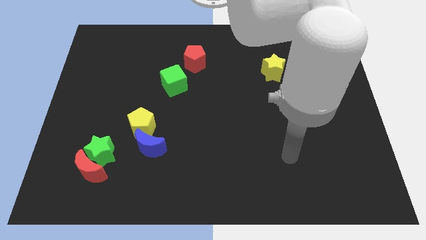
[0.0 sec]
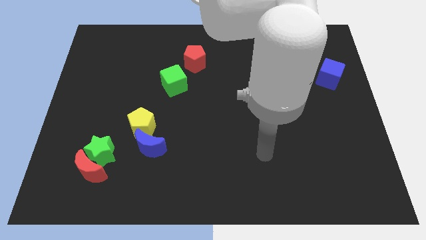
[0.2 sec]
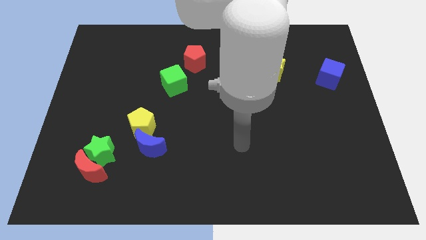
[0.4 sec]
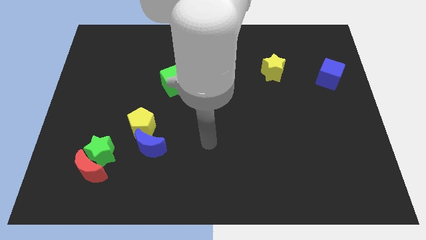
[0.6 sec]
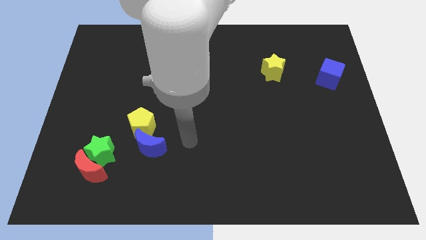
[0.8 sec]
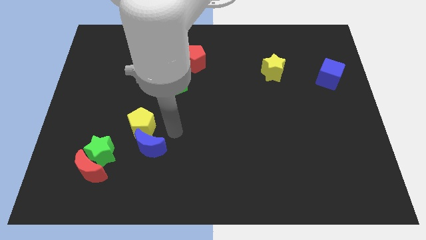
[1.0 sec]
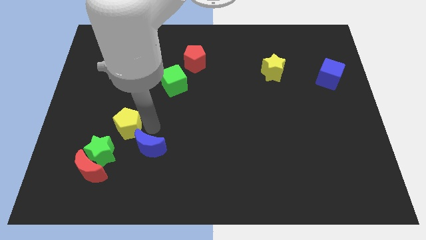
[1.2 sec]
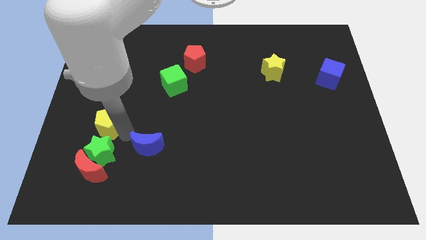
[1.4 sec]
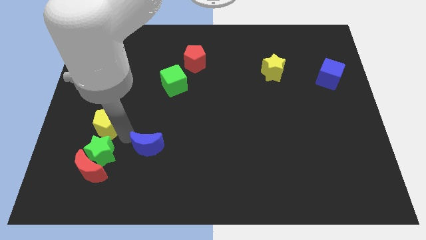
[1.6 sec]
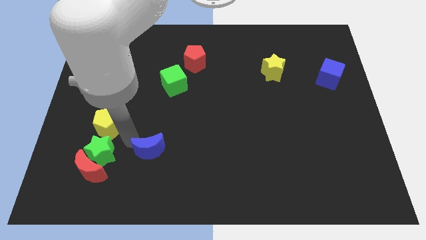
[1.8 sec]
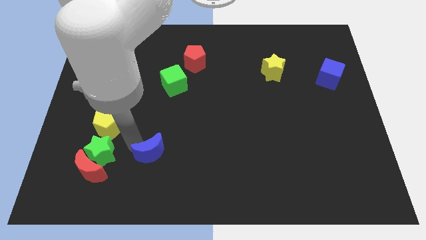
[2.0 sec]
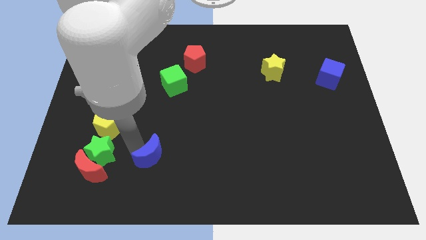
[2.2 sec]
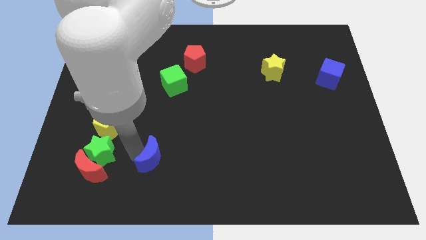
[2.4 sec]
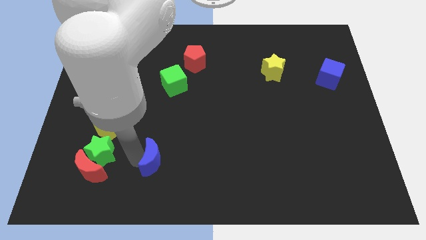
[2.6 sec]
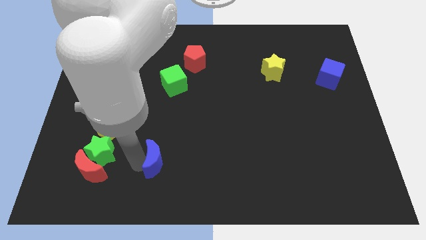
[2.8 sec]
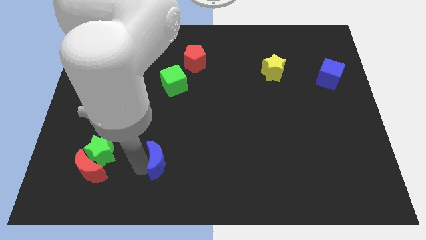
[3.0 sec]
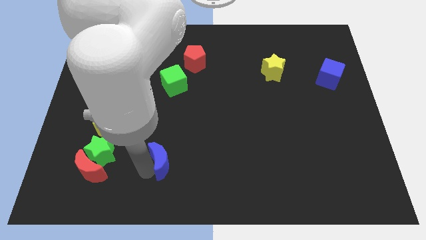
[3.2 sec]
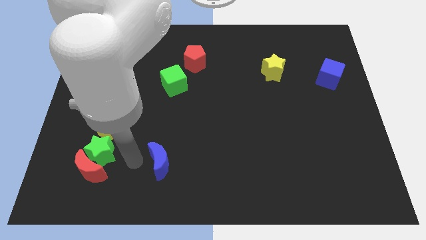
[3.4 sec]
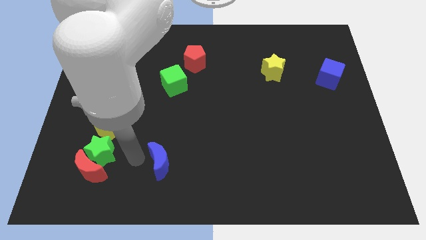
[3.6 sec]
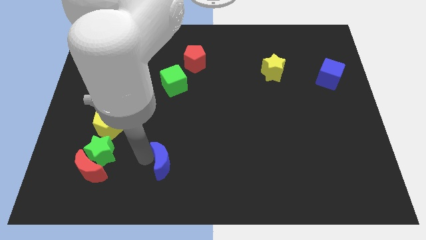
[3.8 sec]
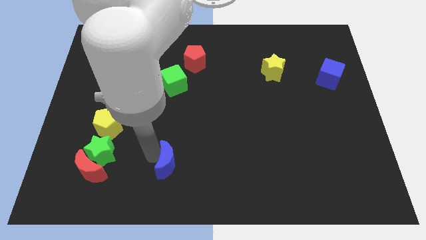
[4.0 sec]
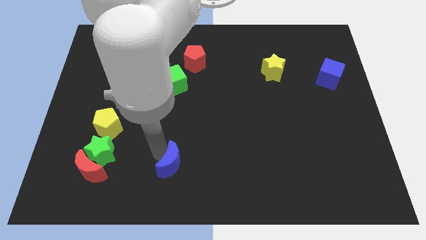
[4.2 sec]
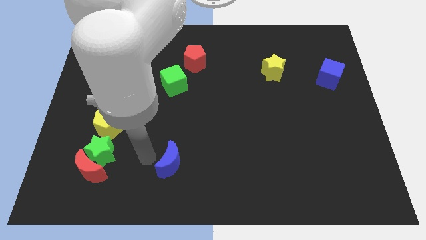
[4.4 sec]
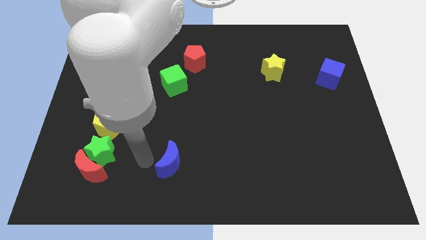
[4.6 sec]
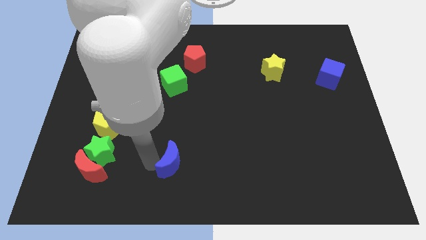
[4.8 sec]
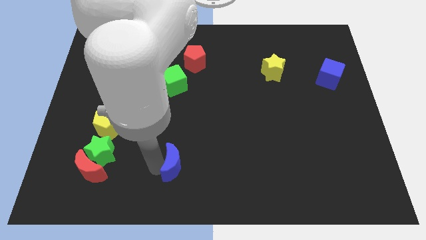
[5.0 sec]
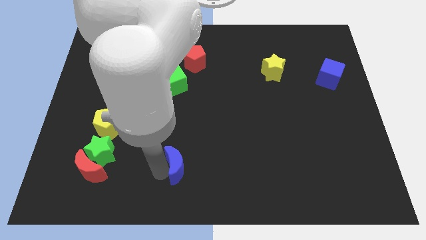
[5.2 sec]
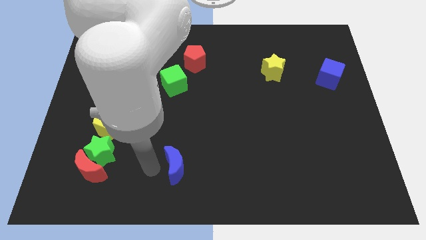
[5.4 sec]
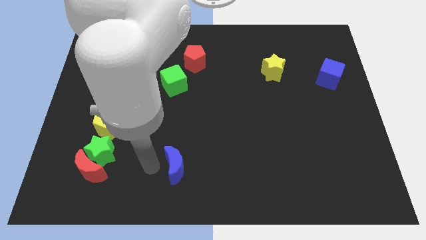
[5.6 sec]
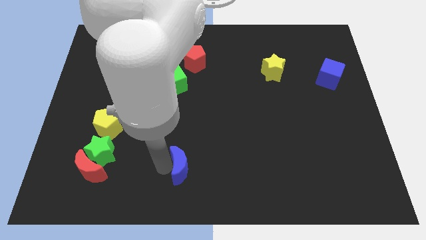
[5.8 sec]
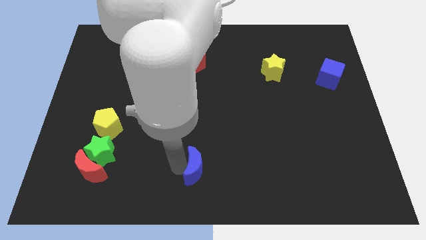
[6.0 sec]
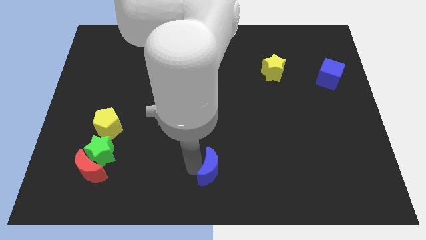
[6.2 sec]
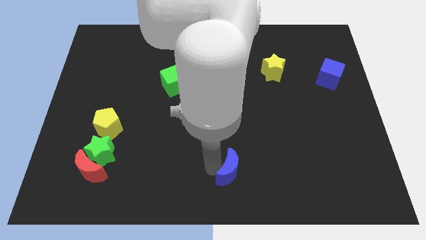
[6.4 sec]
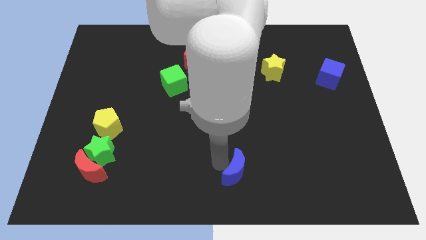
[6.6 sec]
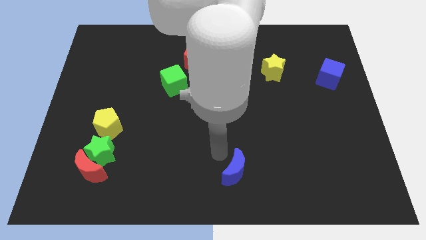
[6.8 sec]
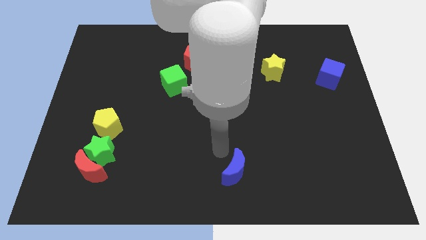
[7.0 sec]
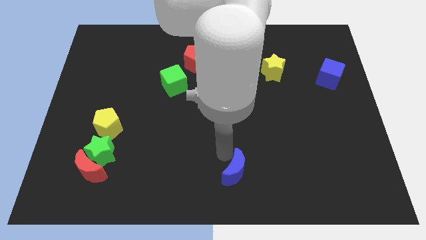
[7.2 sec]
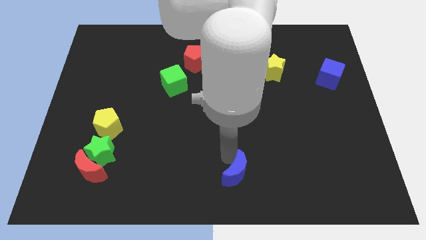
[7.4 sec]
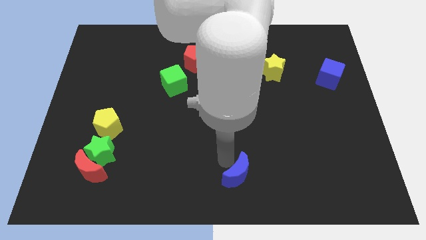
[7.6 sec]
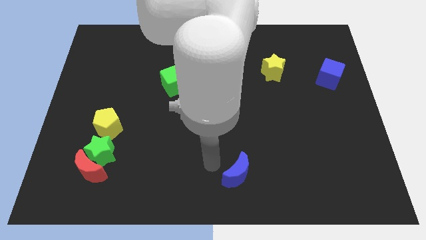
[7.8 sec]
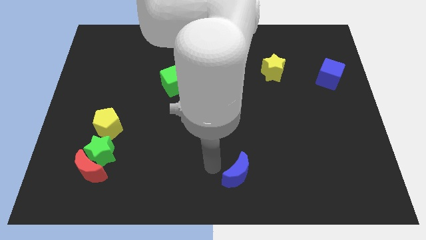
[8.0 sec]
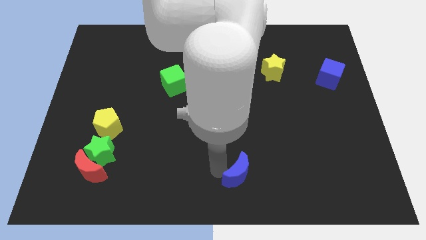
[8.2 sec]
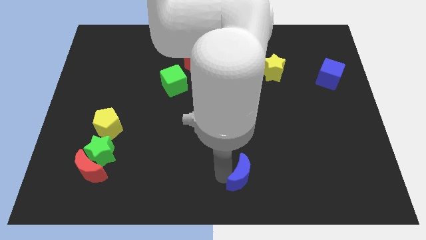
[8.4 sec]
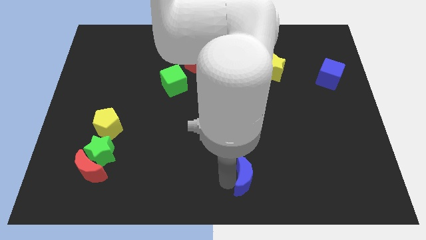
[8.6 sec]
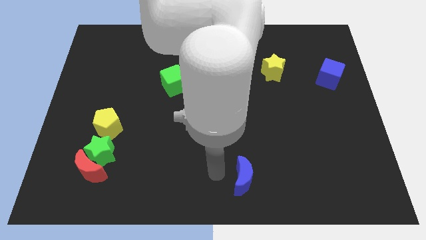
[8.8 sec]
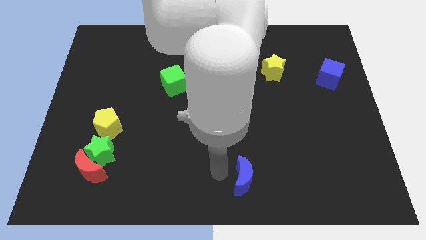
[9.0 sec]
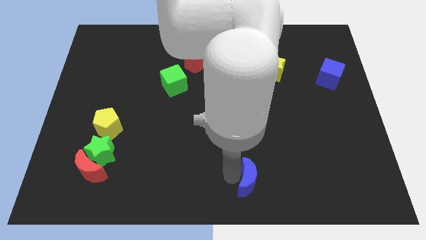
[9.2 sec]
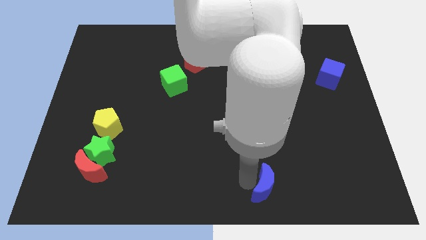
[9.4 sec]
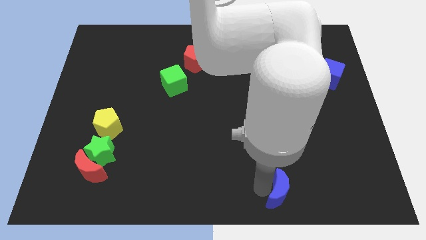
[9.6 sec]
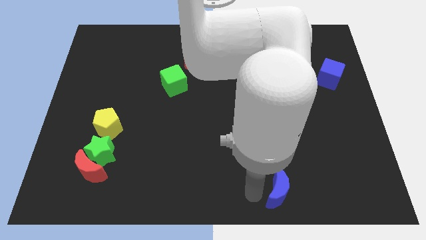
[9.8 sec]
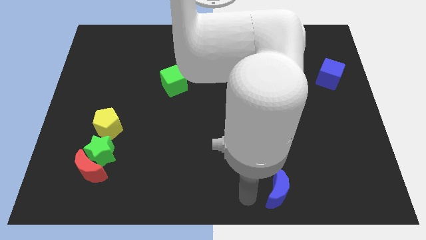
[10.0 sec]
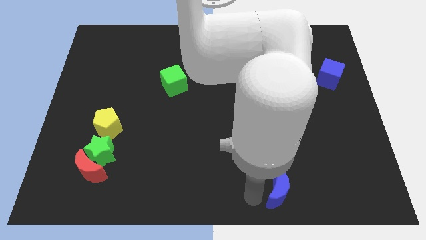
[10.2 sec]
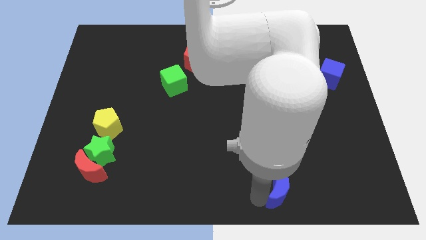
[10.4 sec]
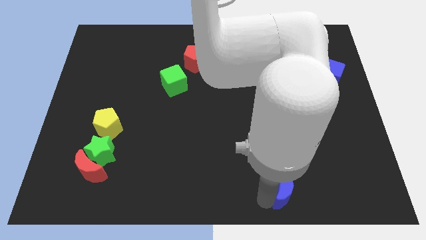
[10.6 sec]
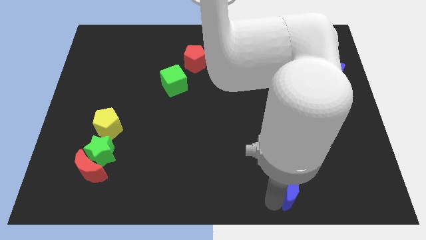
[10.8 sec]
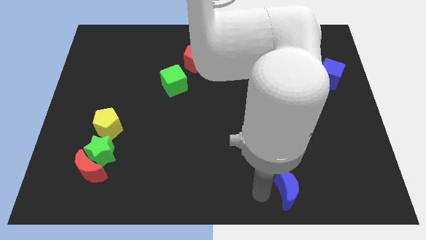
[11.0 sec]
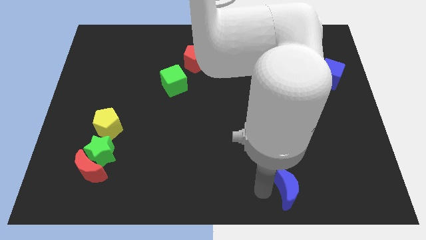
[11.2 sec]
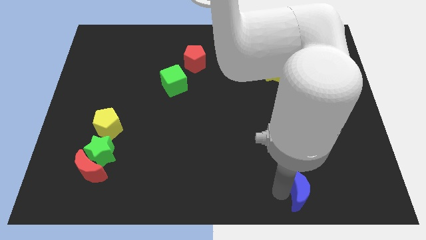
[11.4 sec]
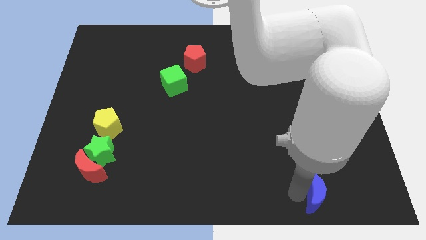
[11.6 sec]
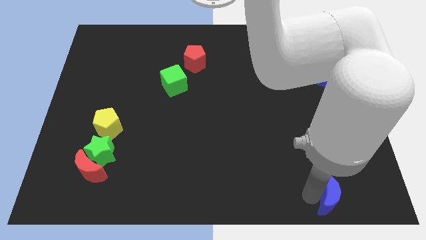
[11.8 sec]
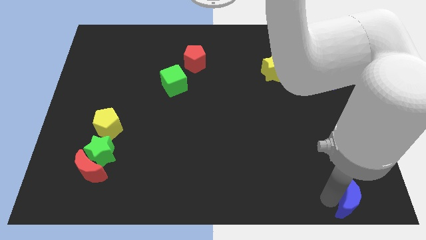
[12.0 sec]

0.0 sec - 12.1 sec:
slide the blue moon to the bottom right

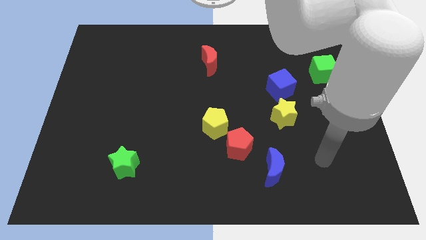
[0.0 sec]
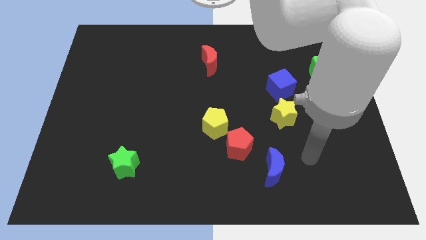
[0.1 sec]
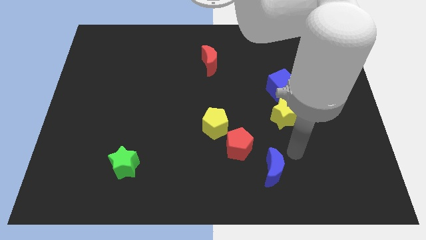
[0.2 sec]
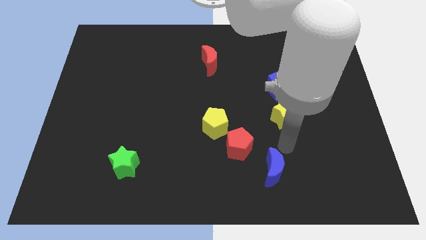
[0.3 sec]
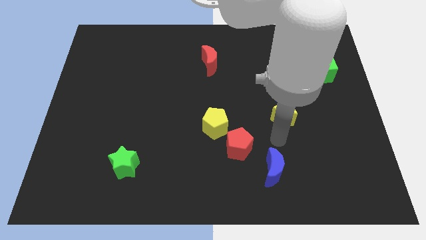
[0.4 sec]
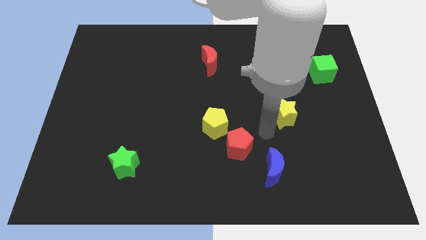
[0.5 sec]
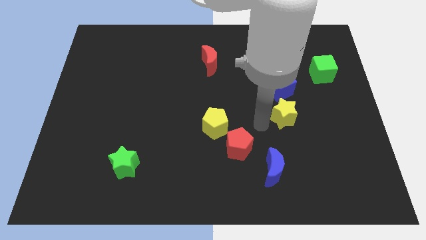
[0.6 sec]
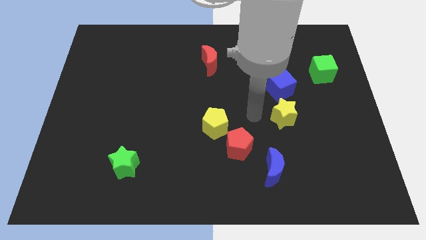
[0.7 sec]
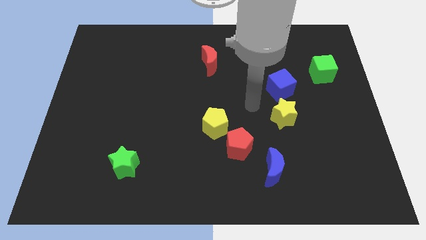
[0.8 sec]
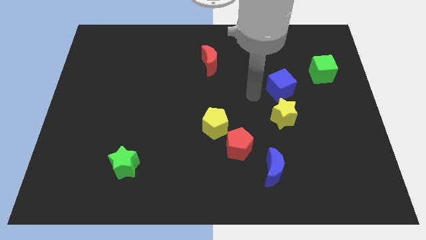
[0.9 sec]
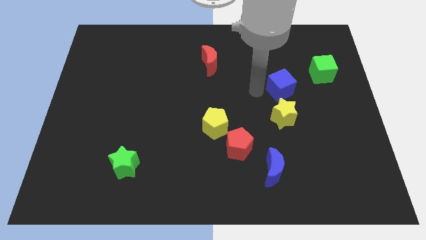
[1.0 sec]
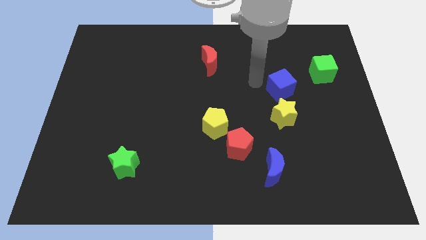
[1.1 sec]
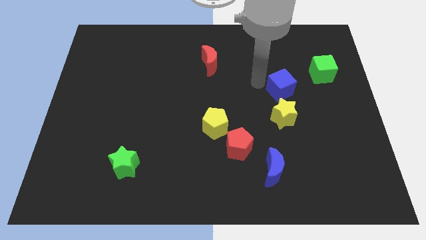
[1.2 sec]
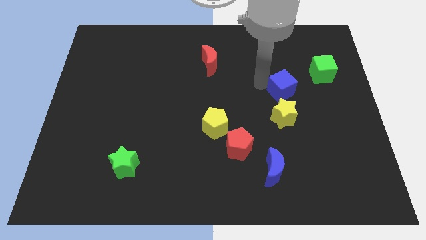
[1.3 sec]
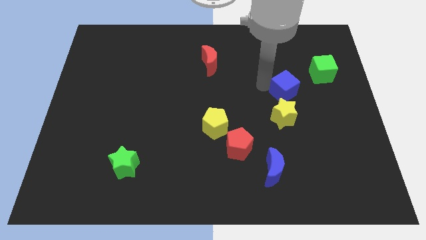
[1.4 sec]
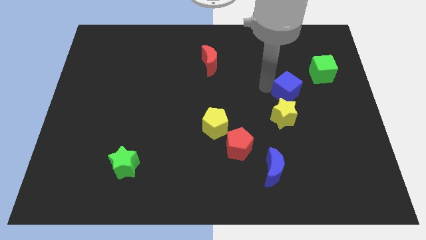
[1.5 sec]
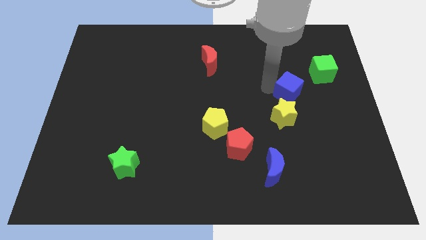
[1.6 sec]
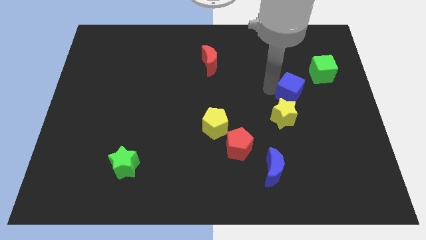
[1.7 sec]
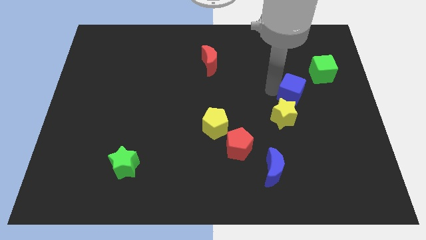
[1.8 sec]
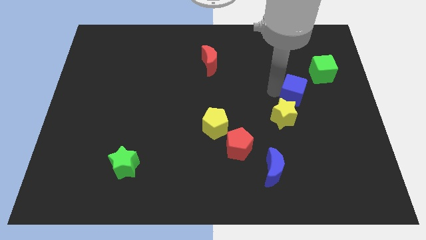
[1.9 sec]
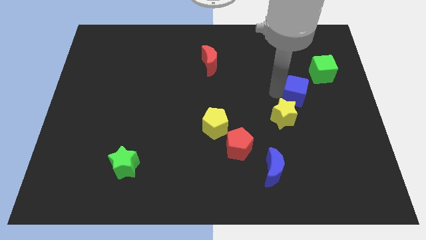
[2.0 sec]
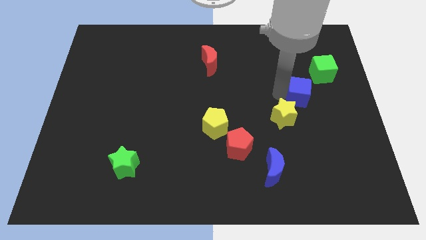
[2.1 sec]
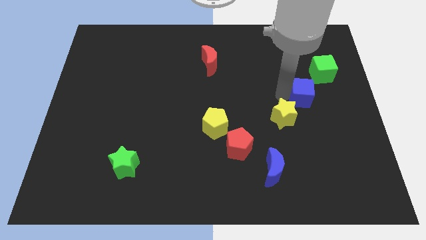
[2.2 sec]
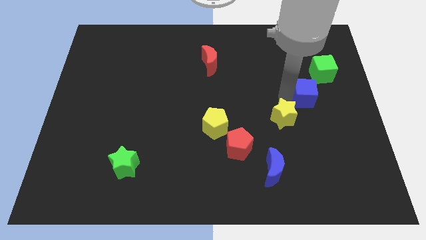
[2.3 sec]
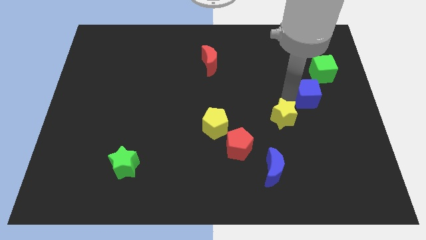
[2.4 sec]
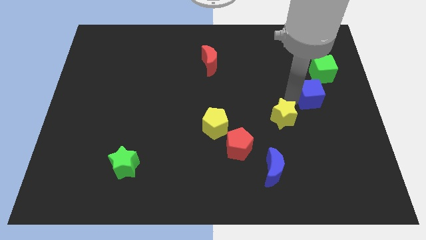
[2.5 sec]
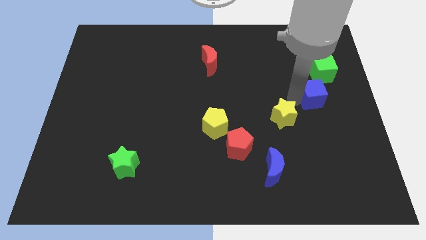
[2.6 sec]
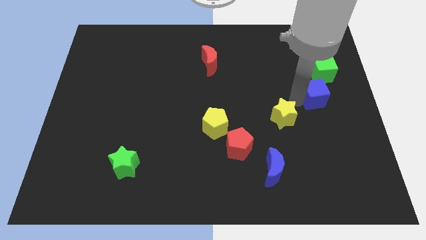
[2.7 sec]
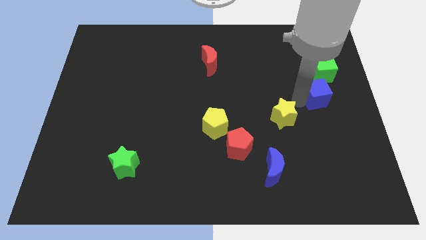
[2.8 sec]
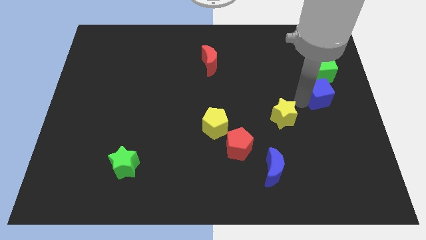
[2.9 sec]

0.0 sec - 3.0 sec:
put the blue cube to the right side
